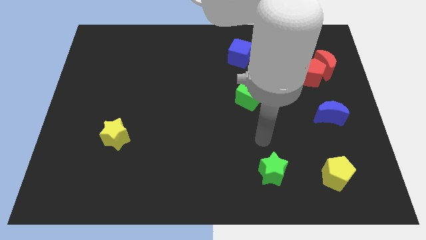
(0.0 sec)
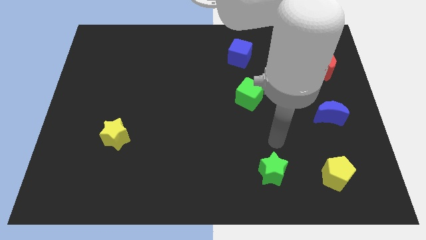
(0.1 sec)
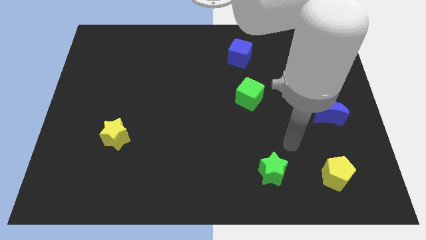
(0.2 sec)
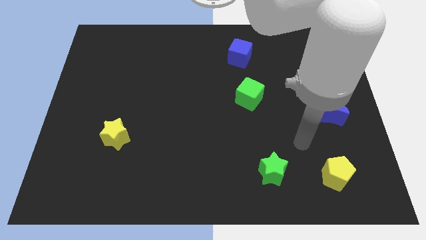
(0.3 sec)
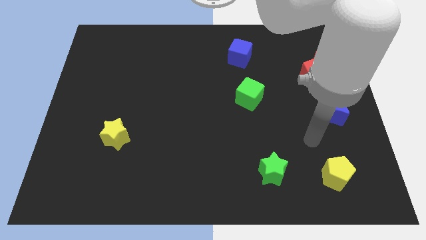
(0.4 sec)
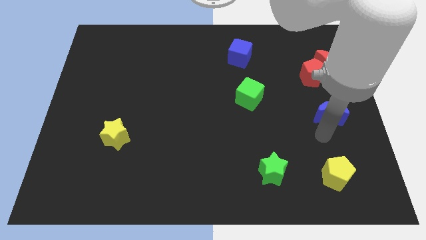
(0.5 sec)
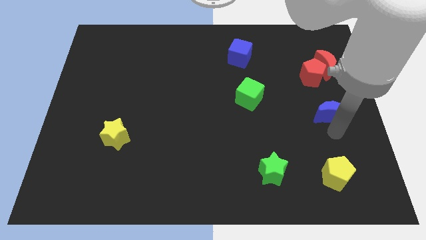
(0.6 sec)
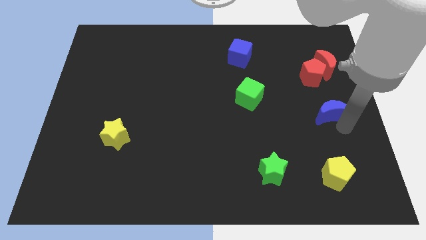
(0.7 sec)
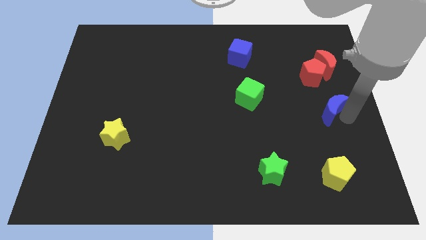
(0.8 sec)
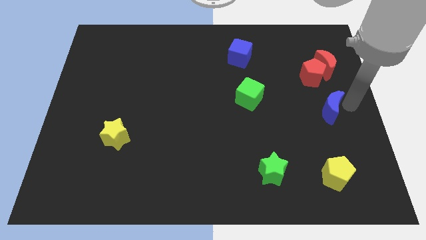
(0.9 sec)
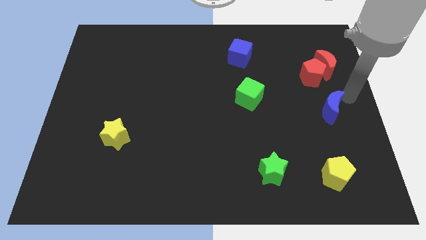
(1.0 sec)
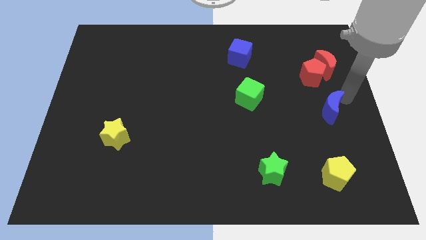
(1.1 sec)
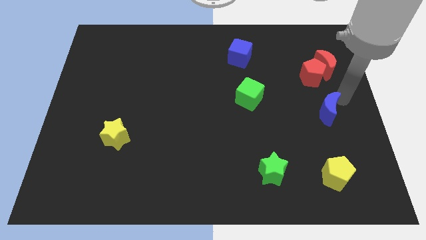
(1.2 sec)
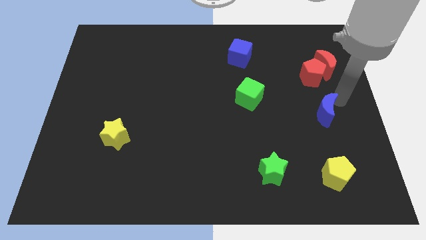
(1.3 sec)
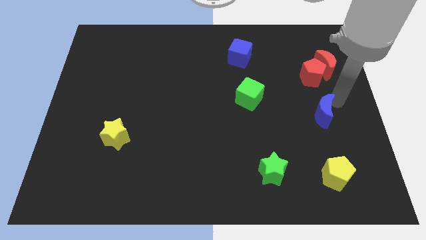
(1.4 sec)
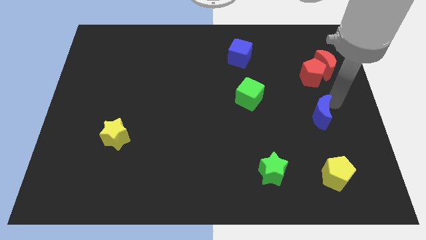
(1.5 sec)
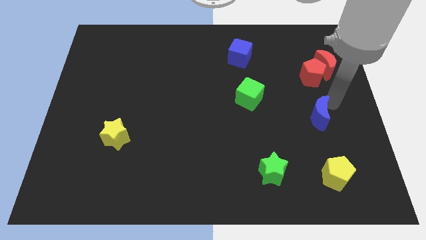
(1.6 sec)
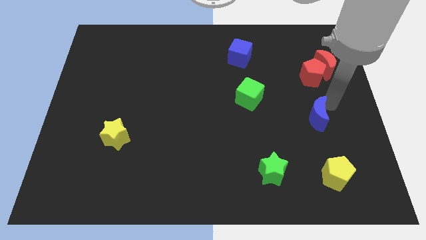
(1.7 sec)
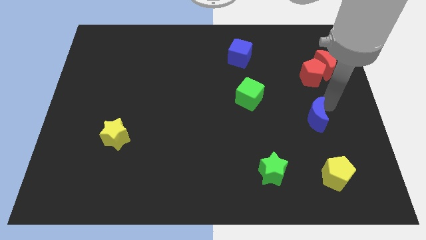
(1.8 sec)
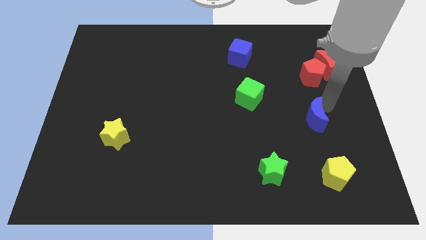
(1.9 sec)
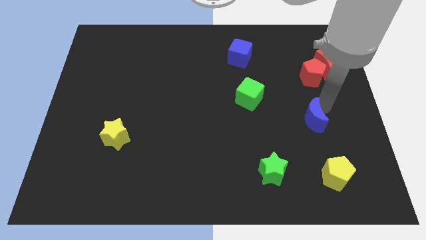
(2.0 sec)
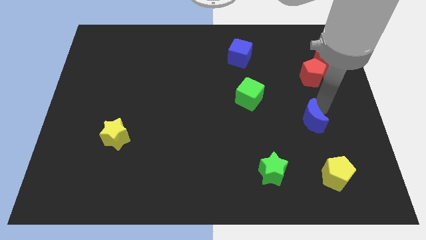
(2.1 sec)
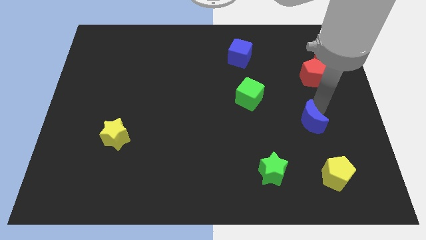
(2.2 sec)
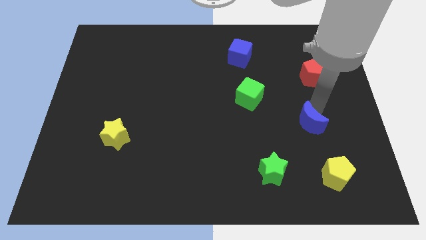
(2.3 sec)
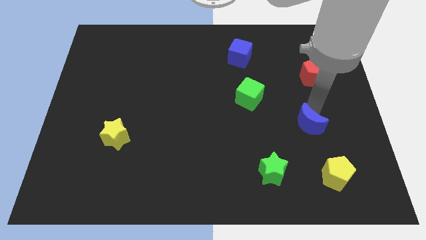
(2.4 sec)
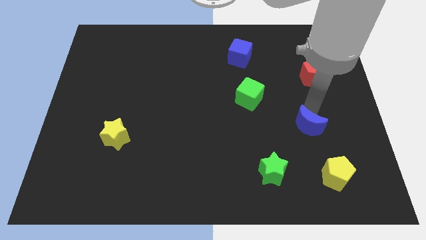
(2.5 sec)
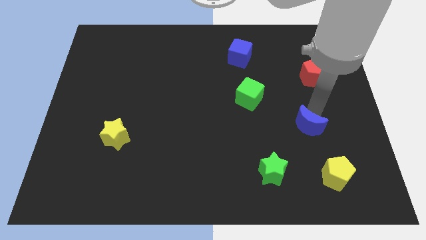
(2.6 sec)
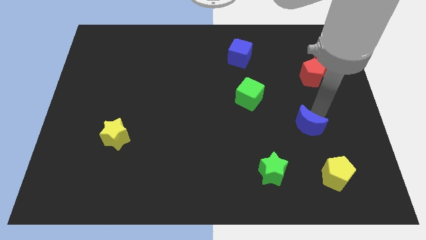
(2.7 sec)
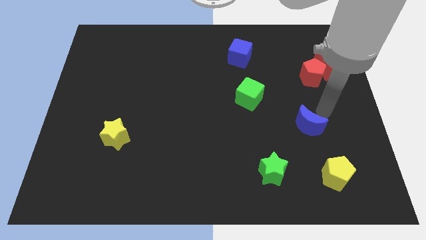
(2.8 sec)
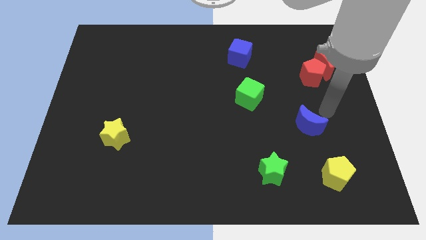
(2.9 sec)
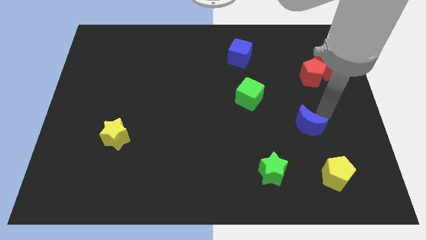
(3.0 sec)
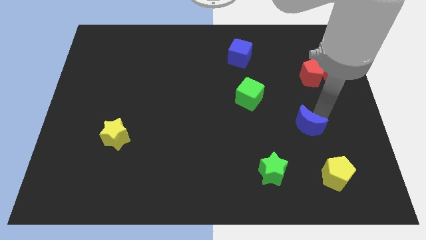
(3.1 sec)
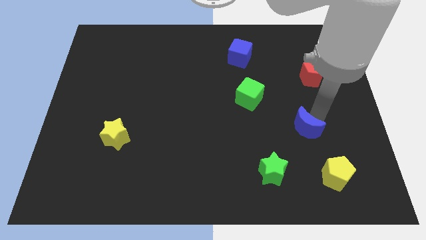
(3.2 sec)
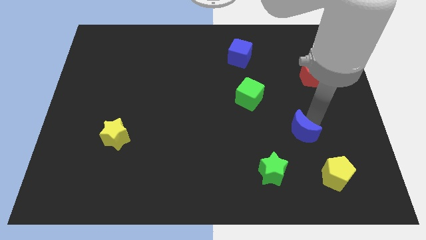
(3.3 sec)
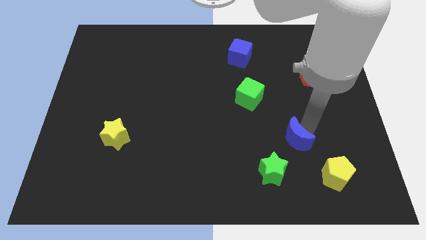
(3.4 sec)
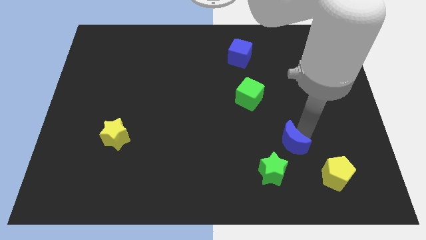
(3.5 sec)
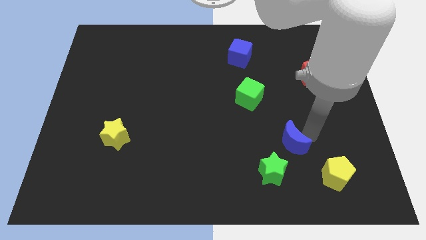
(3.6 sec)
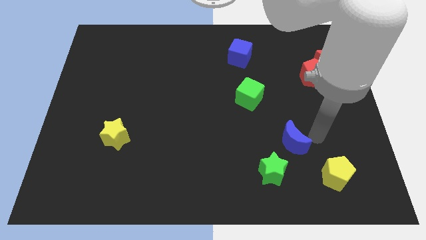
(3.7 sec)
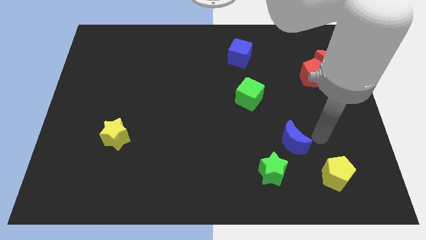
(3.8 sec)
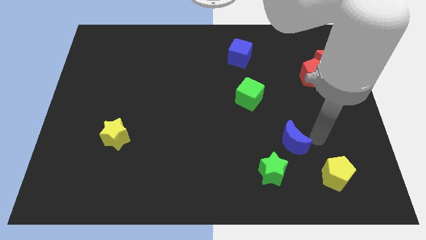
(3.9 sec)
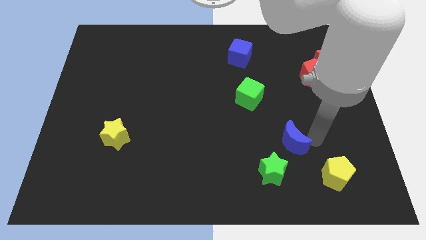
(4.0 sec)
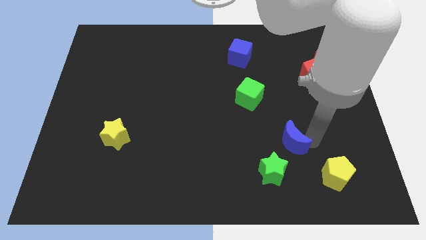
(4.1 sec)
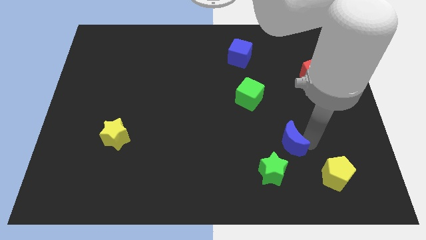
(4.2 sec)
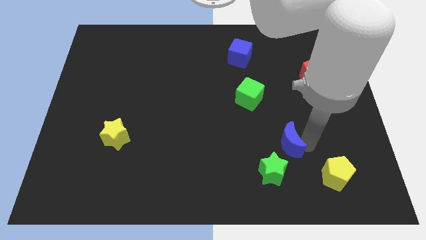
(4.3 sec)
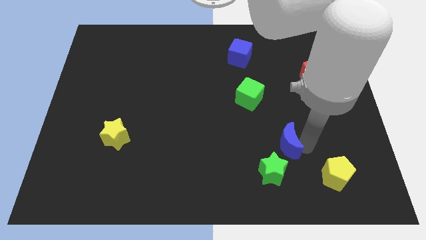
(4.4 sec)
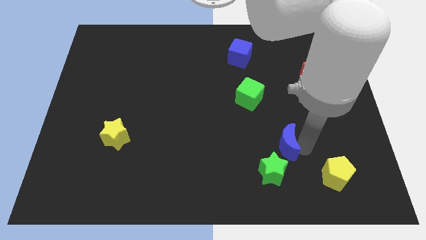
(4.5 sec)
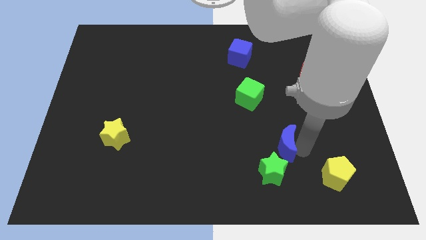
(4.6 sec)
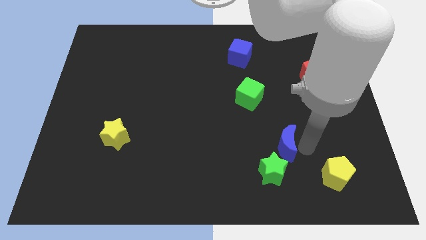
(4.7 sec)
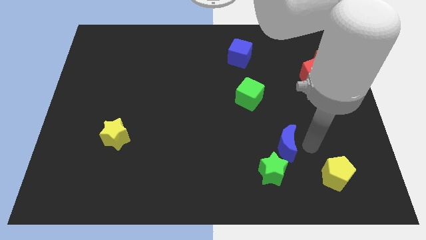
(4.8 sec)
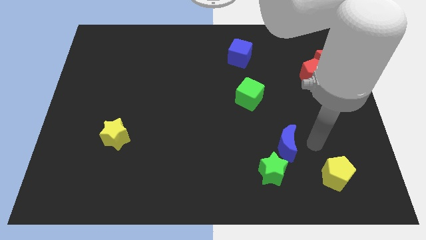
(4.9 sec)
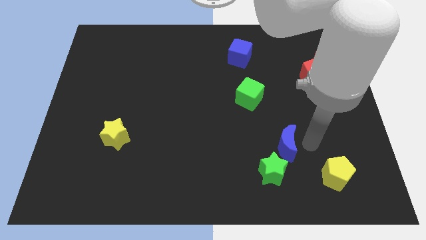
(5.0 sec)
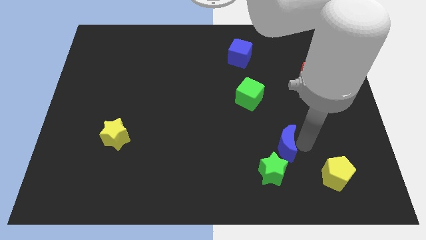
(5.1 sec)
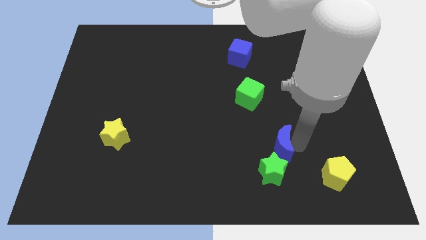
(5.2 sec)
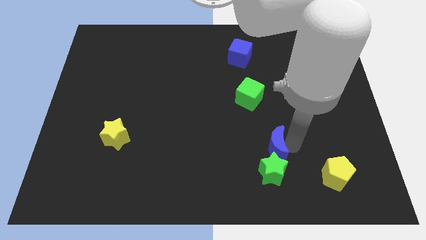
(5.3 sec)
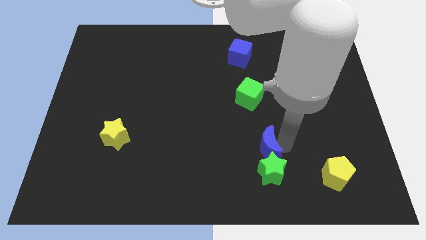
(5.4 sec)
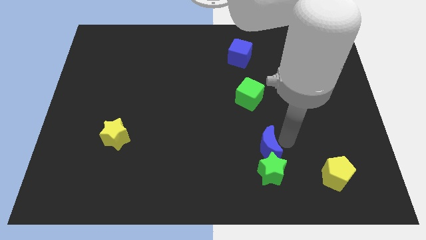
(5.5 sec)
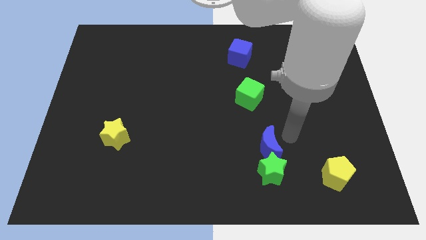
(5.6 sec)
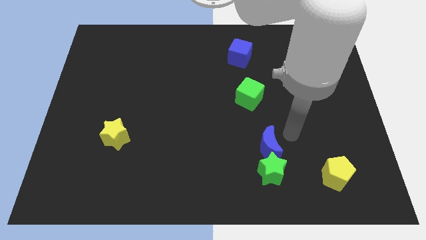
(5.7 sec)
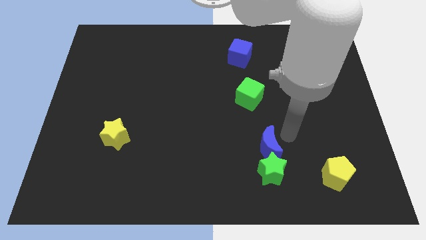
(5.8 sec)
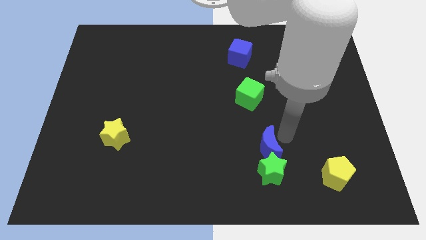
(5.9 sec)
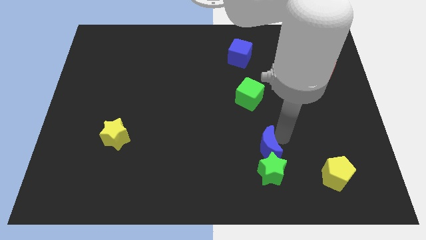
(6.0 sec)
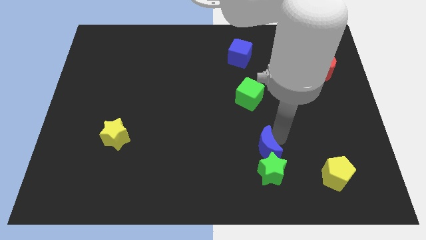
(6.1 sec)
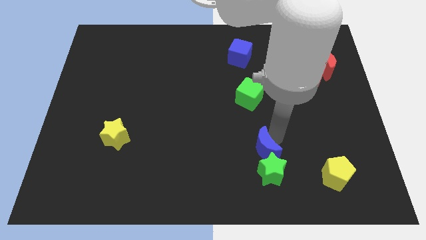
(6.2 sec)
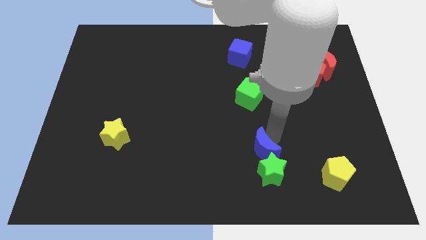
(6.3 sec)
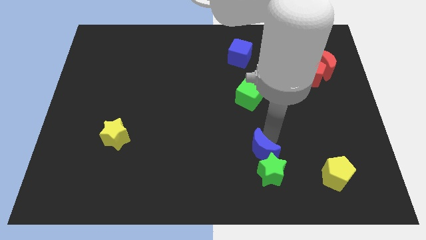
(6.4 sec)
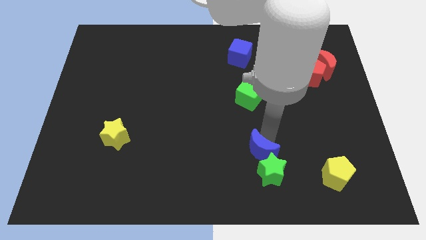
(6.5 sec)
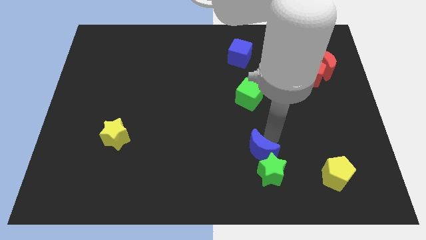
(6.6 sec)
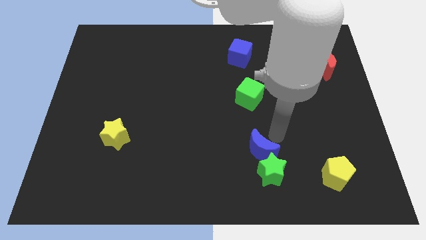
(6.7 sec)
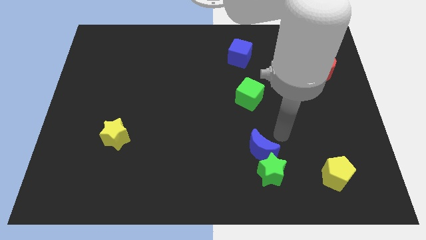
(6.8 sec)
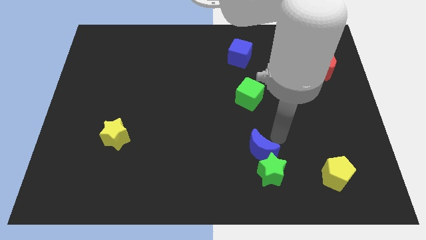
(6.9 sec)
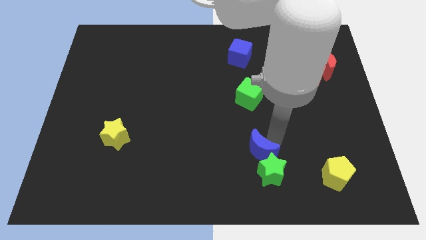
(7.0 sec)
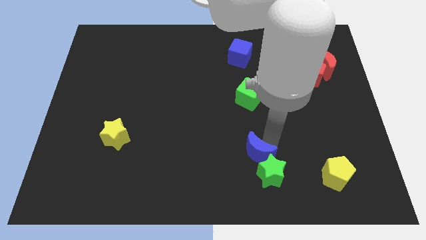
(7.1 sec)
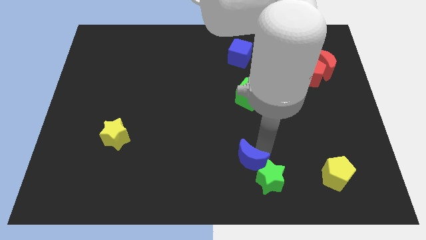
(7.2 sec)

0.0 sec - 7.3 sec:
push the blue moon left of the green star
